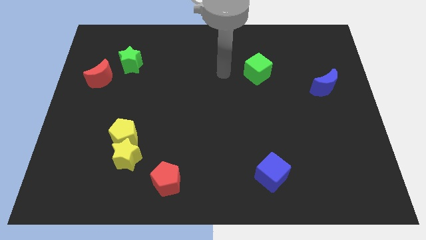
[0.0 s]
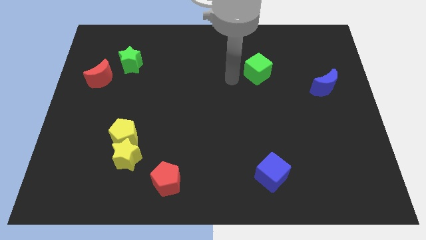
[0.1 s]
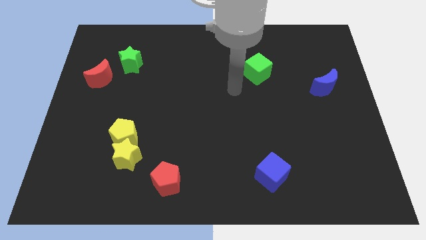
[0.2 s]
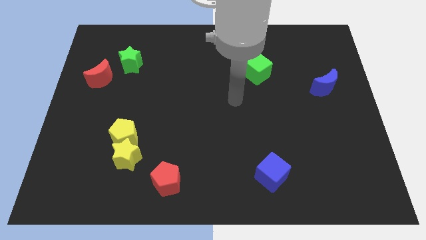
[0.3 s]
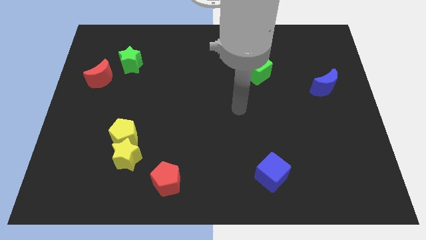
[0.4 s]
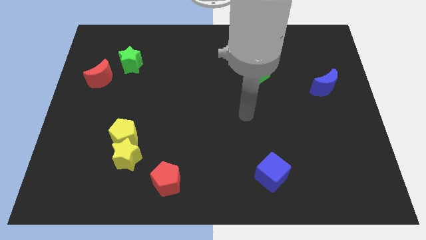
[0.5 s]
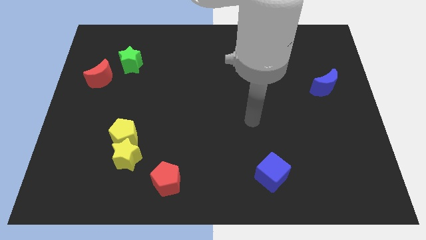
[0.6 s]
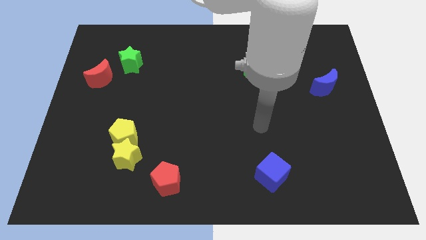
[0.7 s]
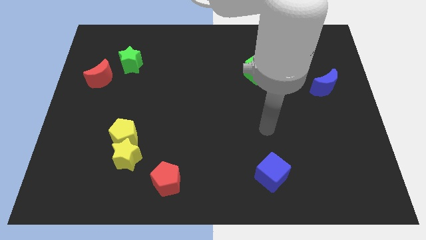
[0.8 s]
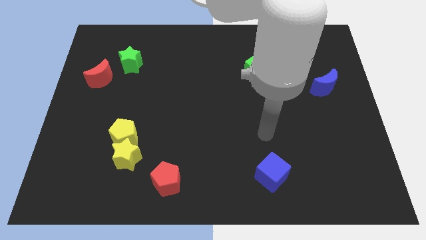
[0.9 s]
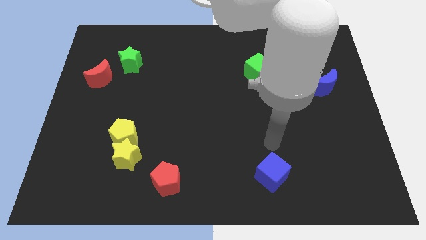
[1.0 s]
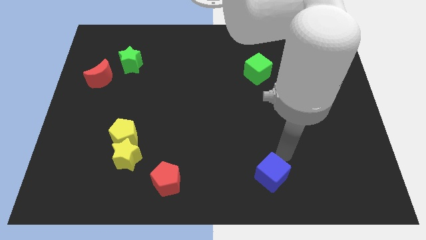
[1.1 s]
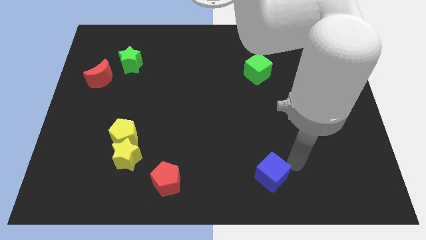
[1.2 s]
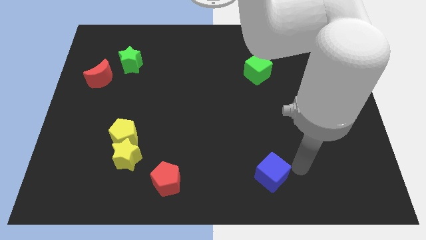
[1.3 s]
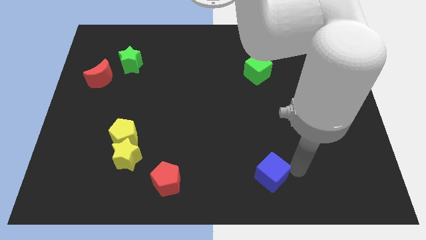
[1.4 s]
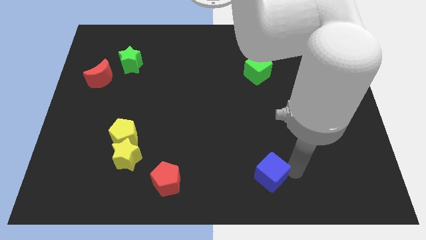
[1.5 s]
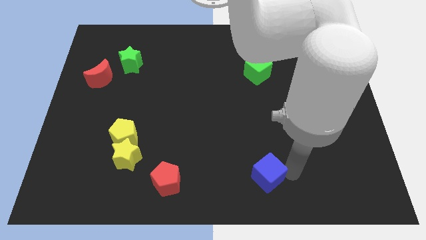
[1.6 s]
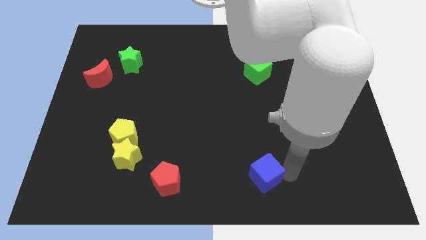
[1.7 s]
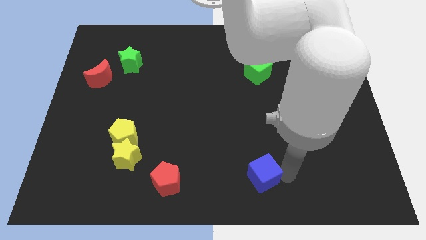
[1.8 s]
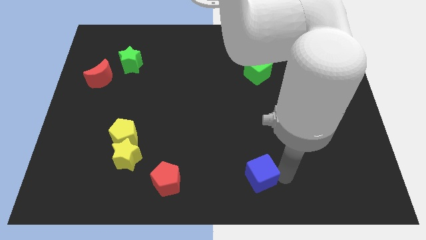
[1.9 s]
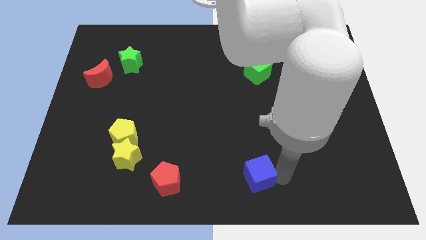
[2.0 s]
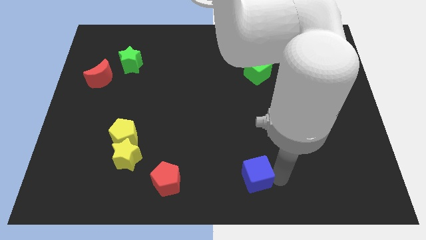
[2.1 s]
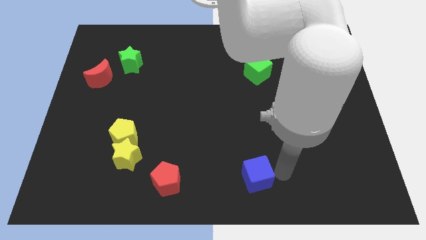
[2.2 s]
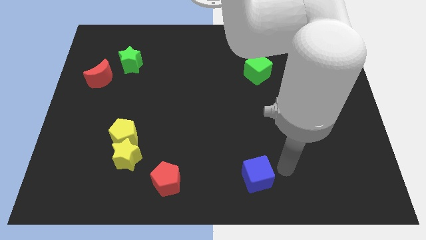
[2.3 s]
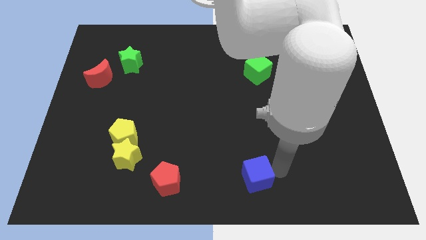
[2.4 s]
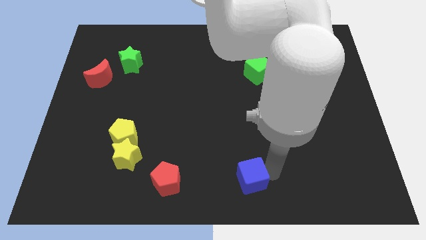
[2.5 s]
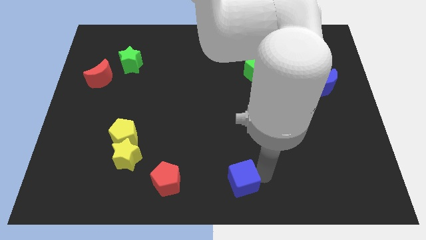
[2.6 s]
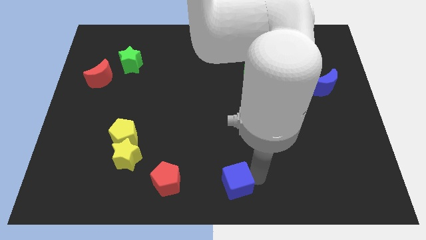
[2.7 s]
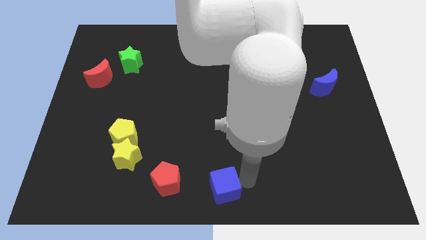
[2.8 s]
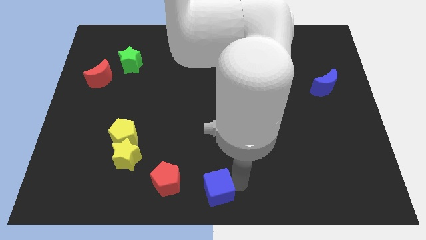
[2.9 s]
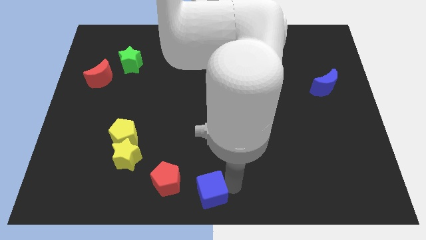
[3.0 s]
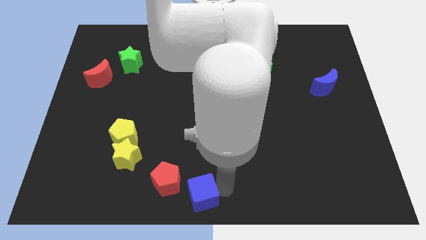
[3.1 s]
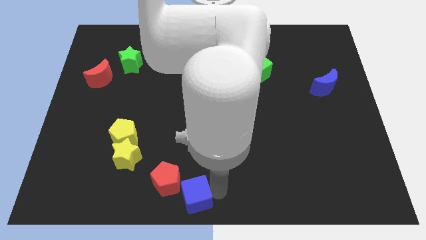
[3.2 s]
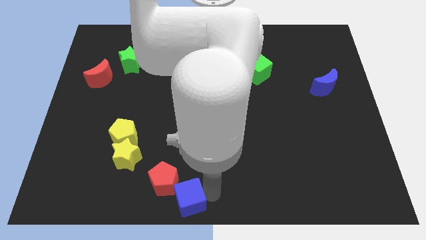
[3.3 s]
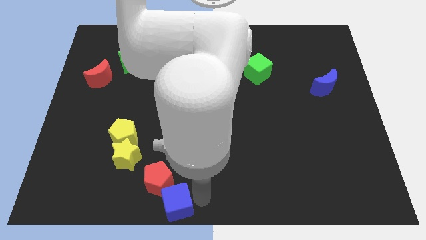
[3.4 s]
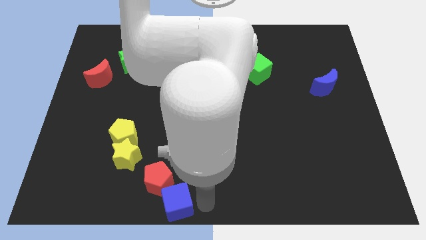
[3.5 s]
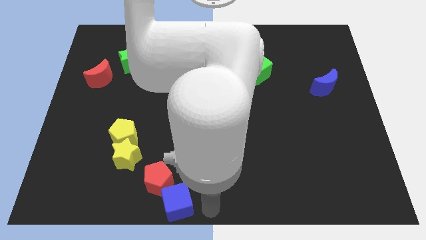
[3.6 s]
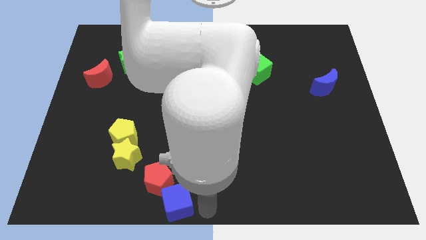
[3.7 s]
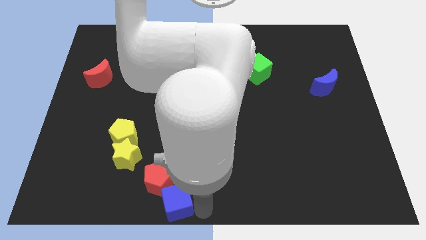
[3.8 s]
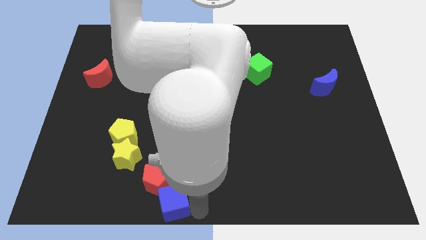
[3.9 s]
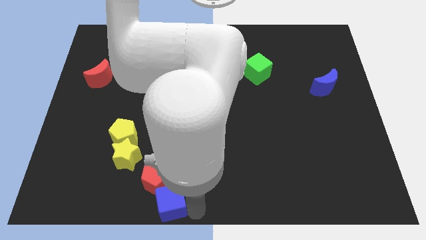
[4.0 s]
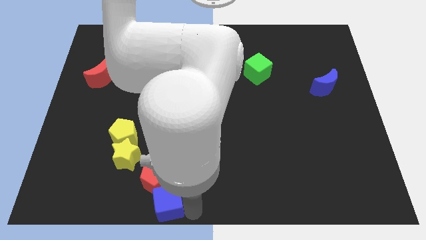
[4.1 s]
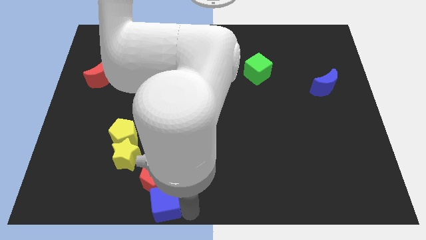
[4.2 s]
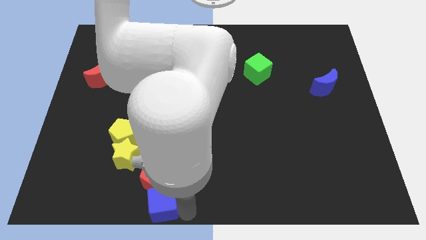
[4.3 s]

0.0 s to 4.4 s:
slide the blue cube to the left

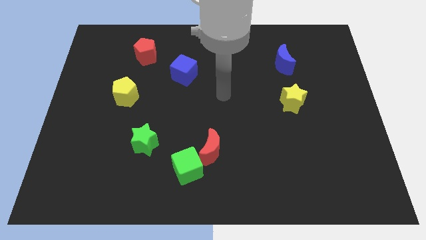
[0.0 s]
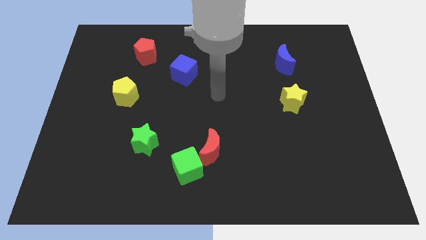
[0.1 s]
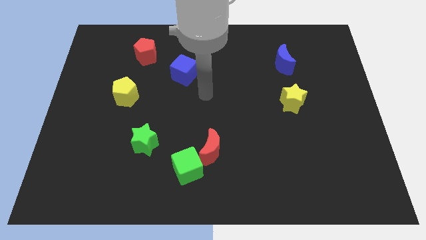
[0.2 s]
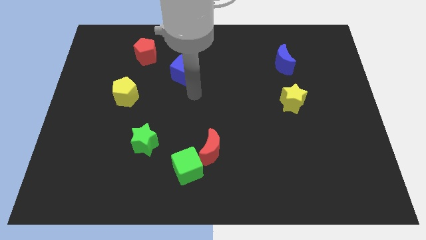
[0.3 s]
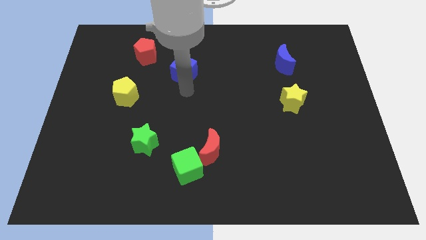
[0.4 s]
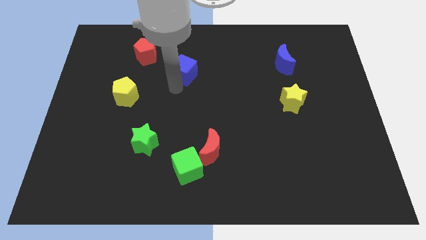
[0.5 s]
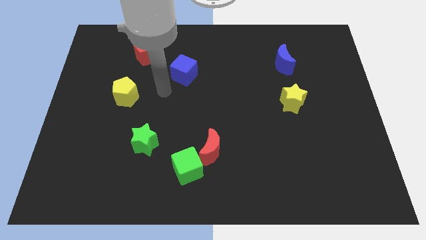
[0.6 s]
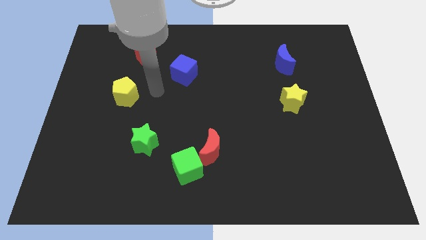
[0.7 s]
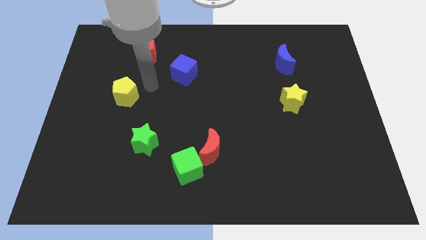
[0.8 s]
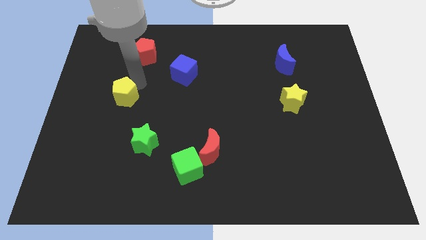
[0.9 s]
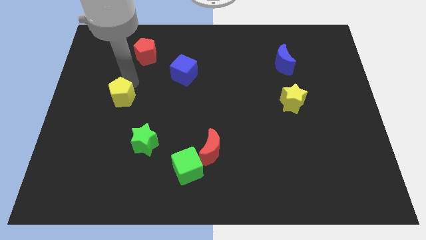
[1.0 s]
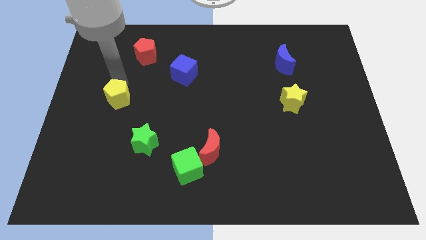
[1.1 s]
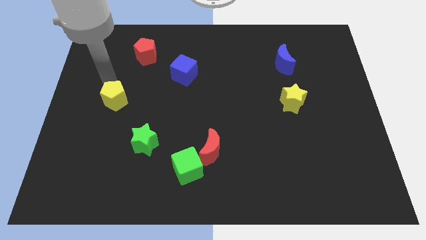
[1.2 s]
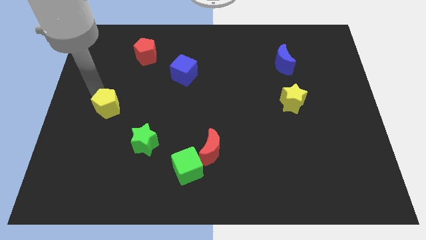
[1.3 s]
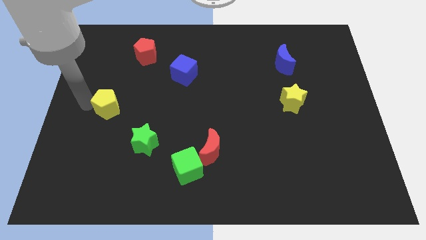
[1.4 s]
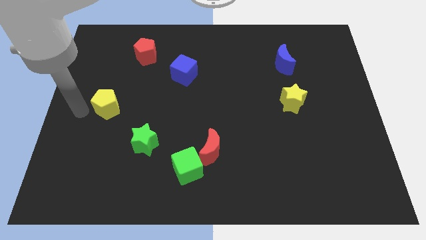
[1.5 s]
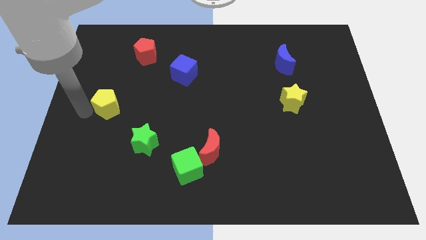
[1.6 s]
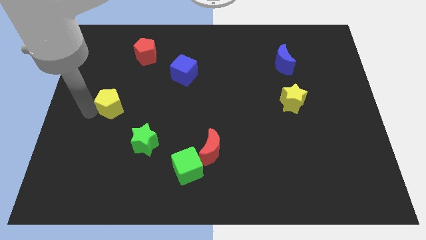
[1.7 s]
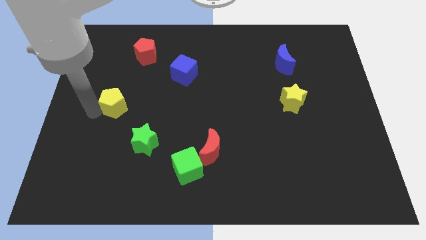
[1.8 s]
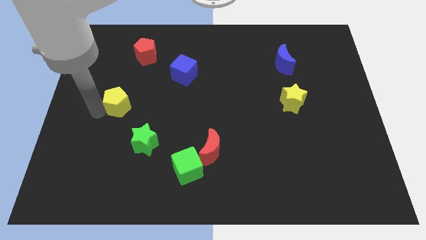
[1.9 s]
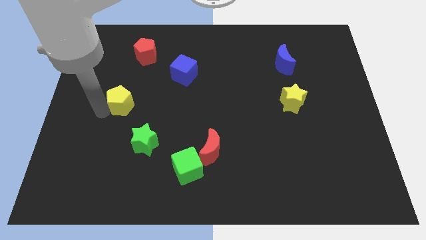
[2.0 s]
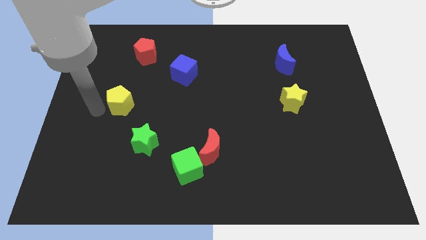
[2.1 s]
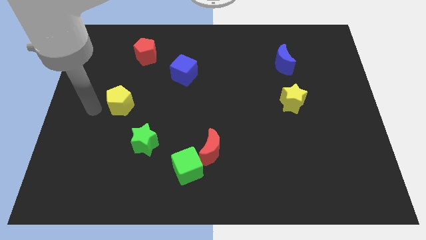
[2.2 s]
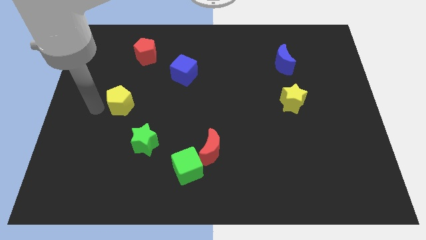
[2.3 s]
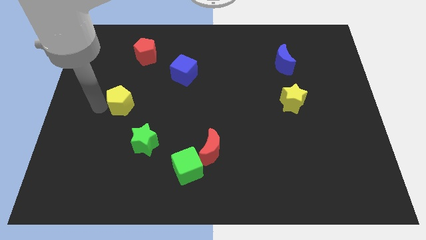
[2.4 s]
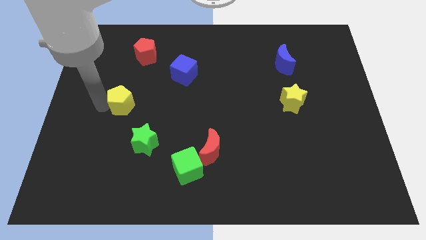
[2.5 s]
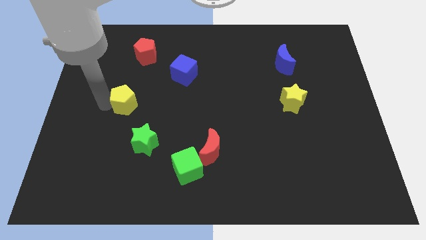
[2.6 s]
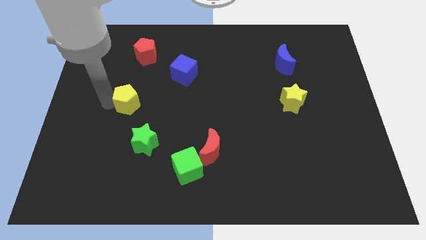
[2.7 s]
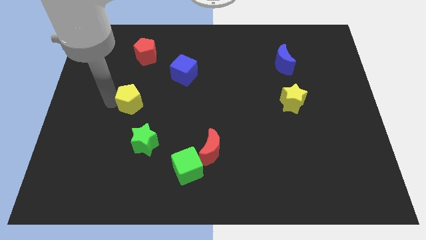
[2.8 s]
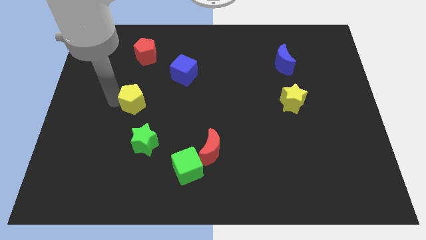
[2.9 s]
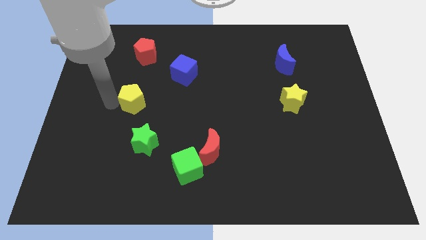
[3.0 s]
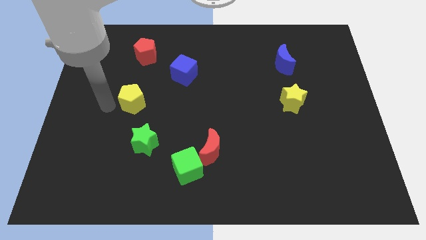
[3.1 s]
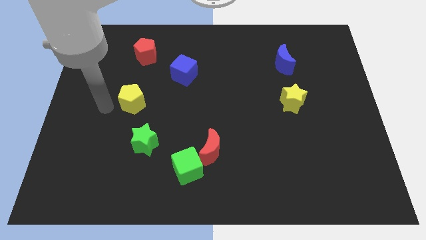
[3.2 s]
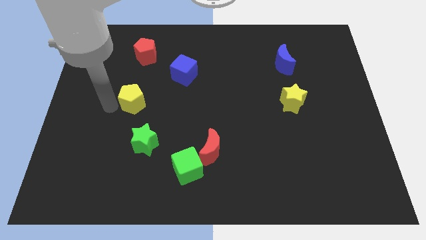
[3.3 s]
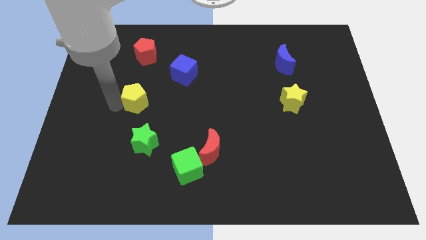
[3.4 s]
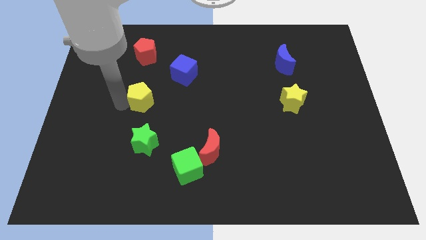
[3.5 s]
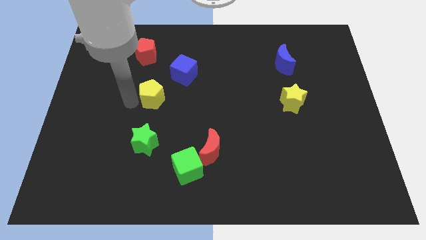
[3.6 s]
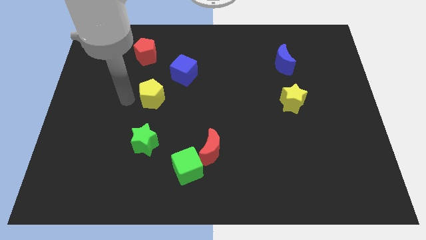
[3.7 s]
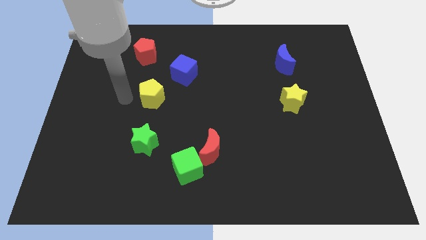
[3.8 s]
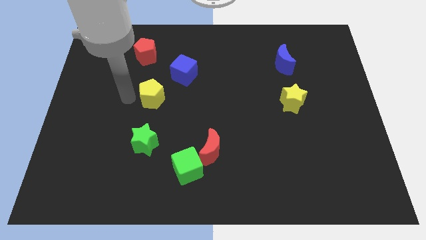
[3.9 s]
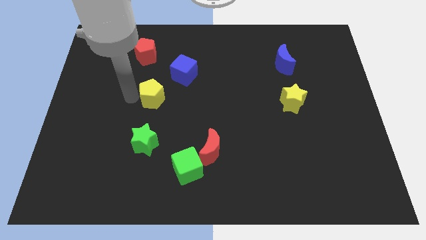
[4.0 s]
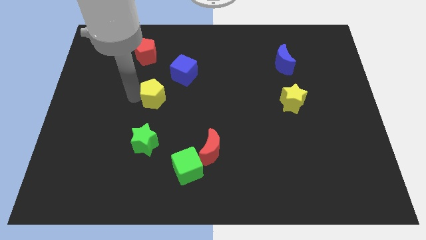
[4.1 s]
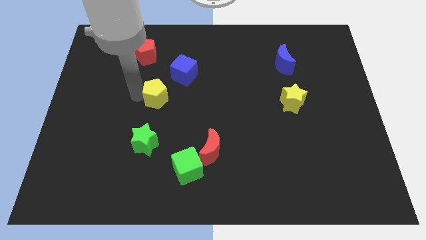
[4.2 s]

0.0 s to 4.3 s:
push the yellow pentagon right slightly
